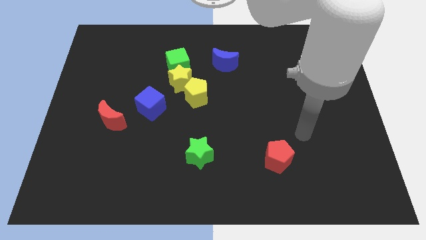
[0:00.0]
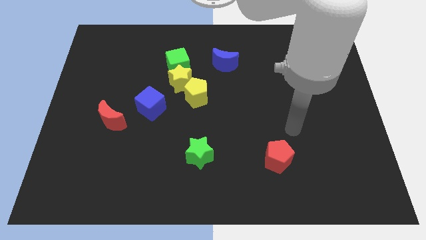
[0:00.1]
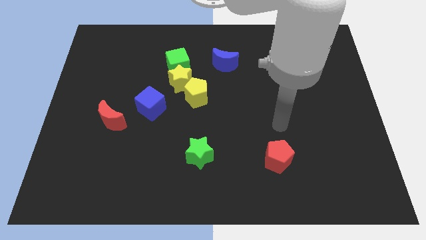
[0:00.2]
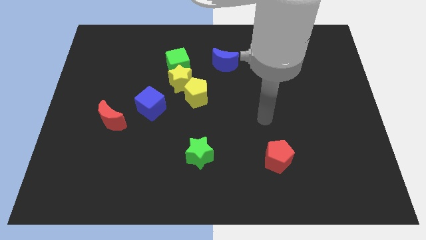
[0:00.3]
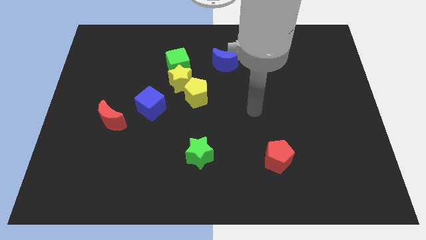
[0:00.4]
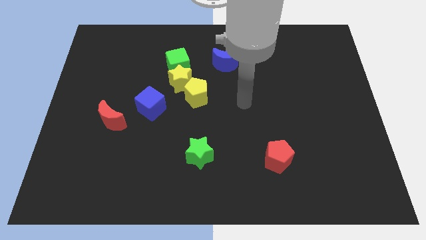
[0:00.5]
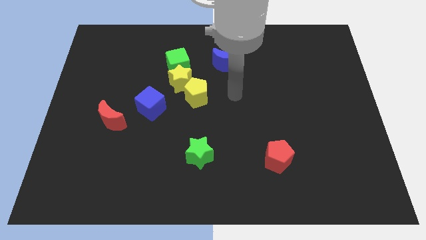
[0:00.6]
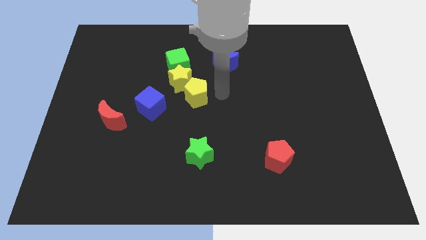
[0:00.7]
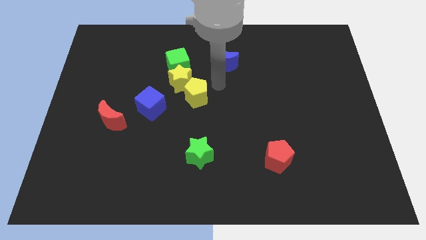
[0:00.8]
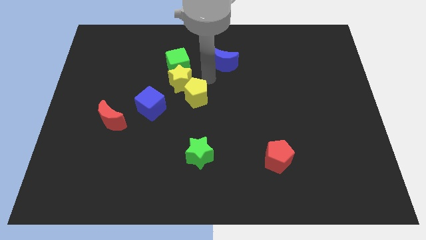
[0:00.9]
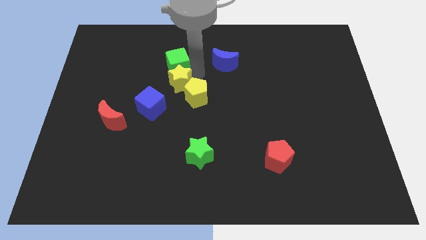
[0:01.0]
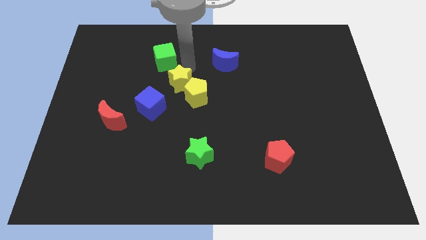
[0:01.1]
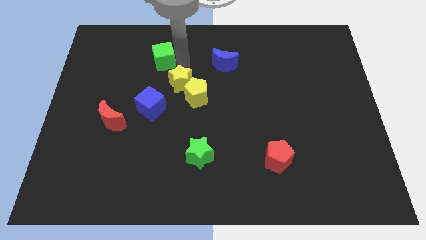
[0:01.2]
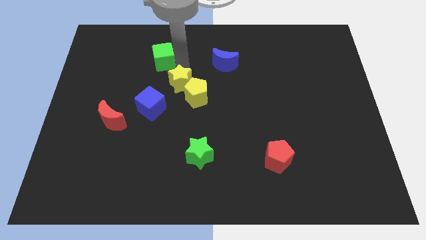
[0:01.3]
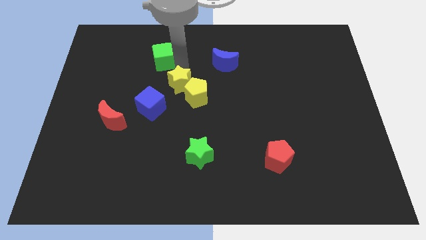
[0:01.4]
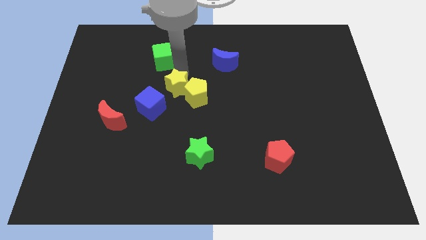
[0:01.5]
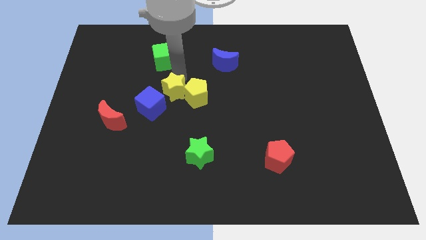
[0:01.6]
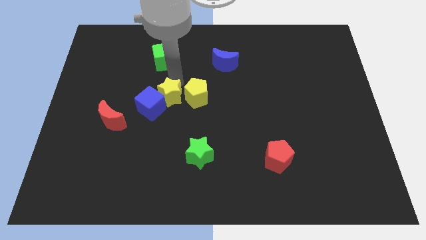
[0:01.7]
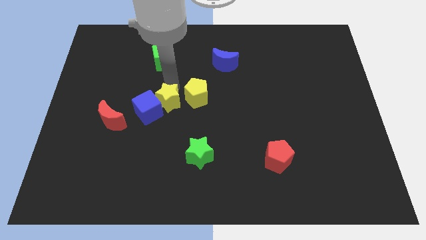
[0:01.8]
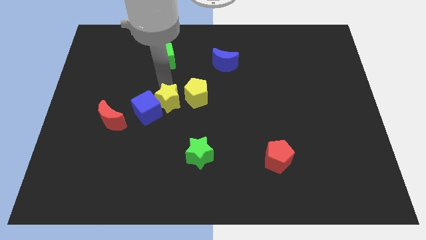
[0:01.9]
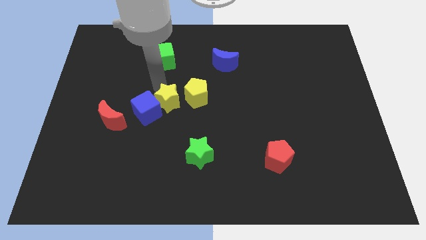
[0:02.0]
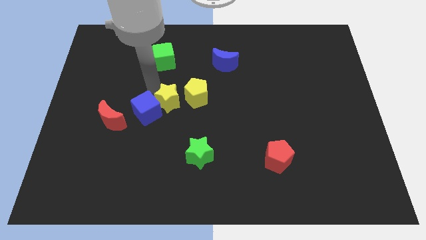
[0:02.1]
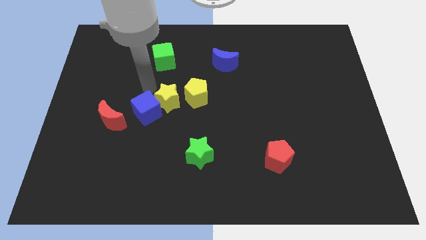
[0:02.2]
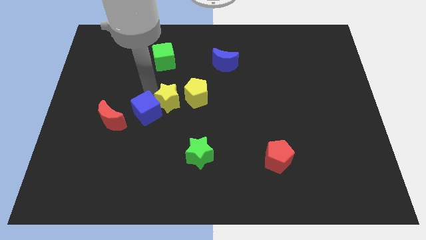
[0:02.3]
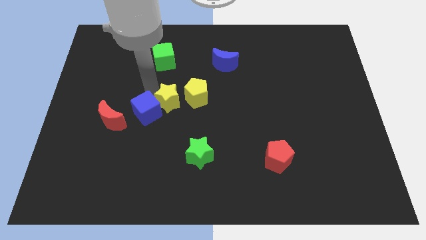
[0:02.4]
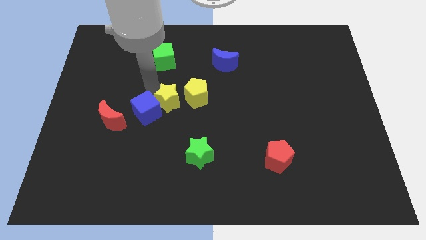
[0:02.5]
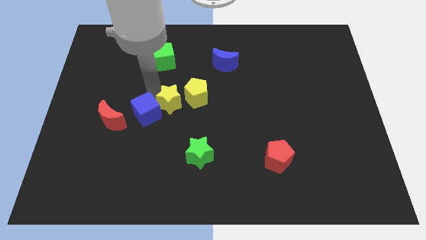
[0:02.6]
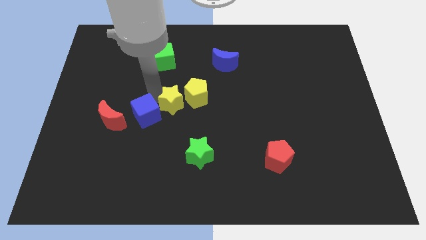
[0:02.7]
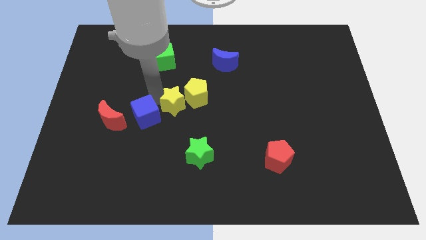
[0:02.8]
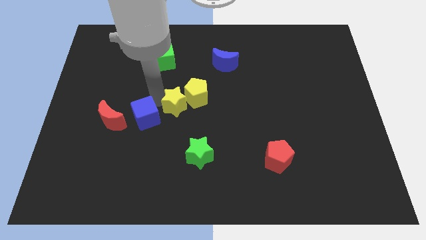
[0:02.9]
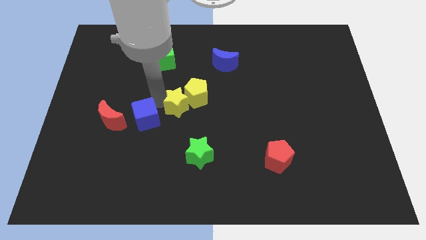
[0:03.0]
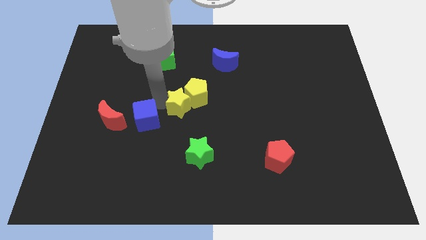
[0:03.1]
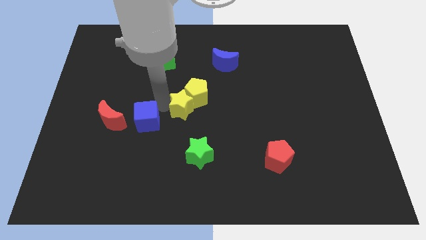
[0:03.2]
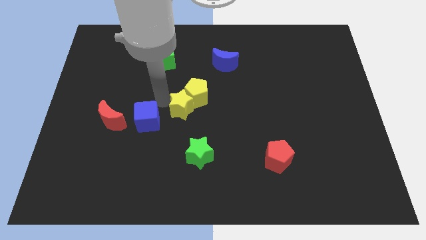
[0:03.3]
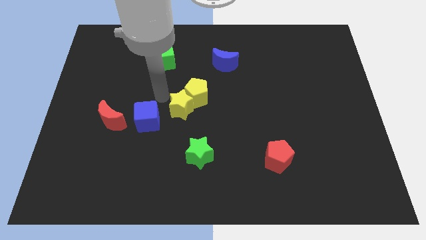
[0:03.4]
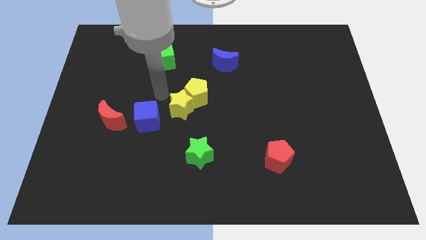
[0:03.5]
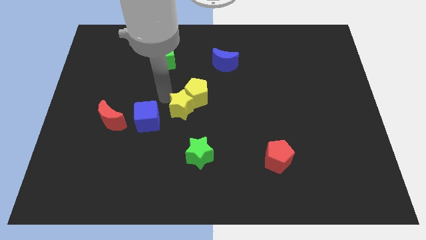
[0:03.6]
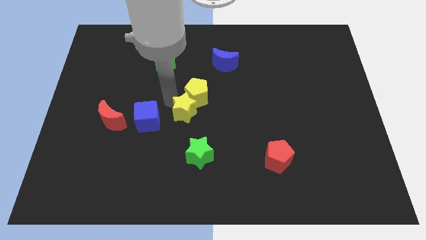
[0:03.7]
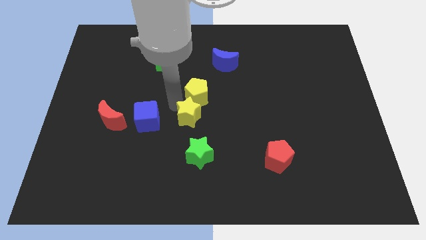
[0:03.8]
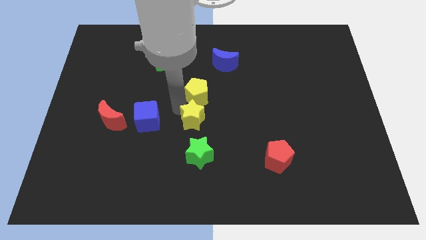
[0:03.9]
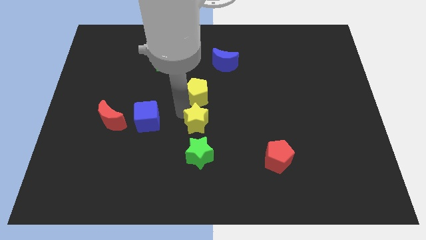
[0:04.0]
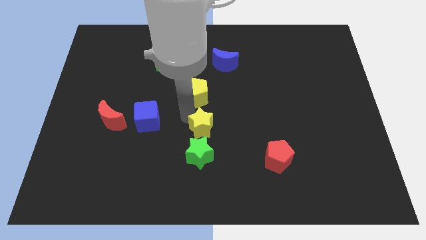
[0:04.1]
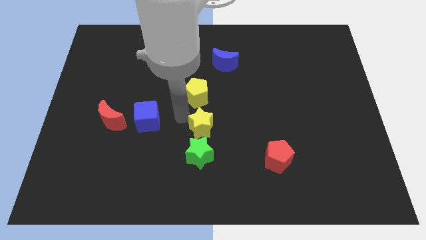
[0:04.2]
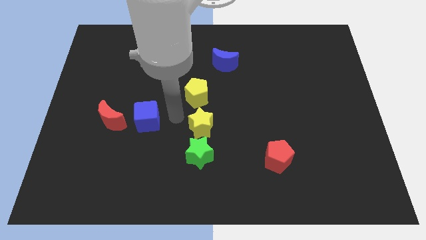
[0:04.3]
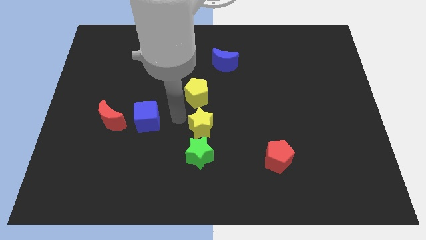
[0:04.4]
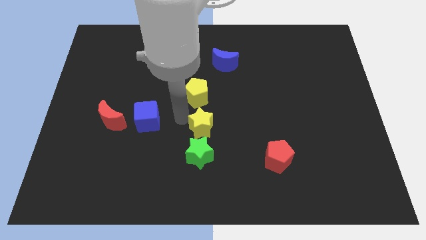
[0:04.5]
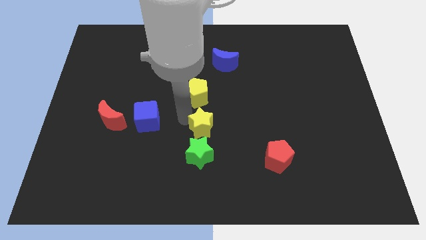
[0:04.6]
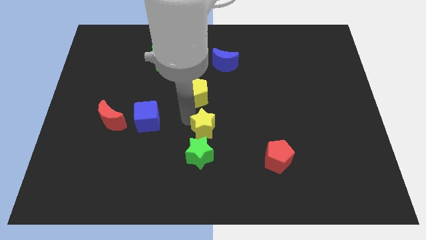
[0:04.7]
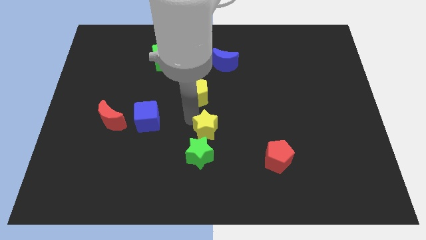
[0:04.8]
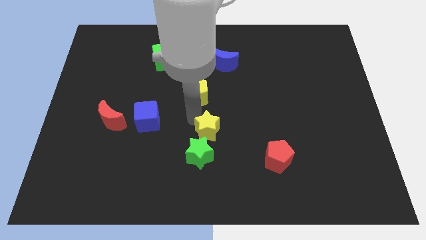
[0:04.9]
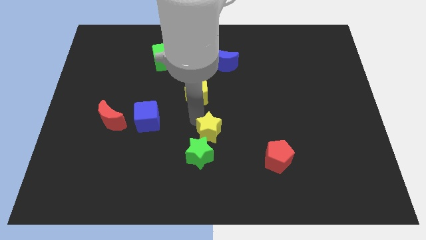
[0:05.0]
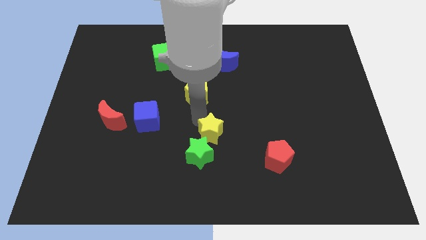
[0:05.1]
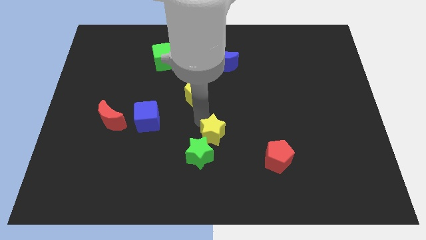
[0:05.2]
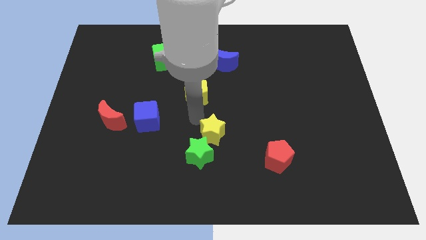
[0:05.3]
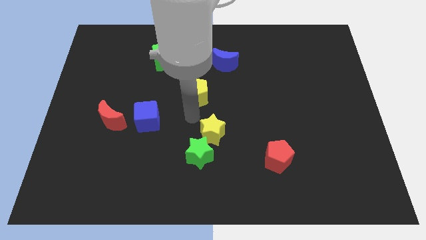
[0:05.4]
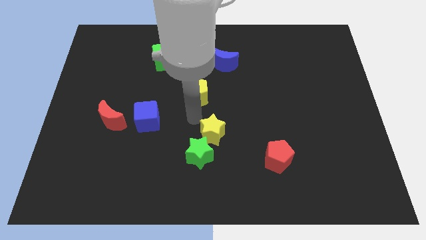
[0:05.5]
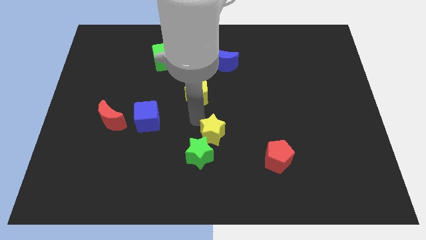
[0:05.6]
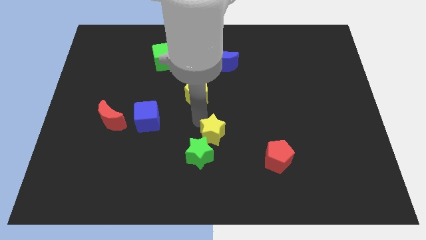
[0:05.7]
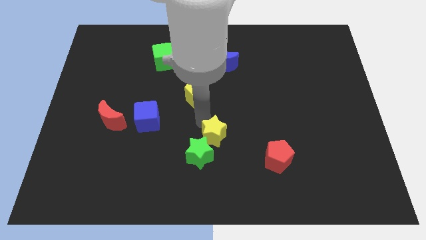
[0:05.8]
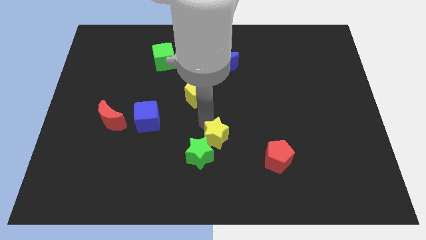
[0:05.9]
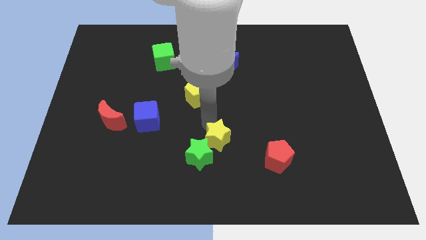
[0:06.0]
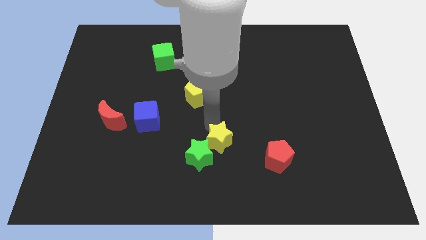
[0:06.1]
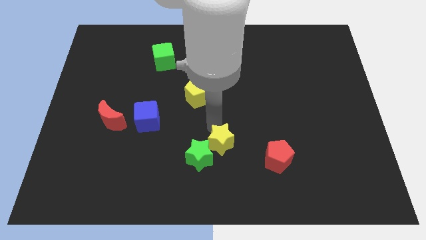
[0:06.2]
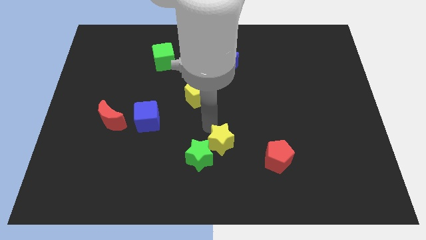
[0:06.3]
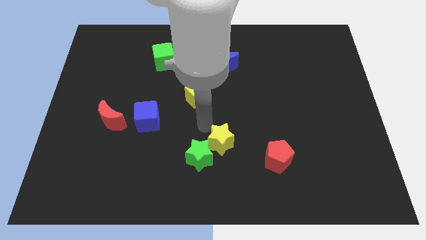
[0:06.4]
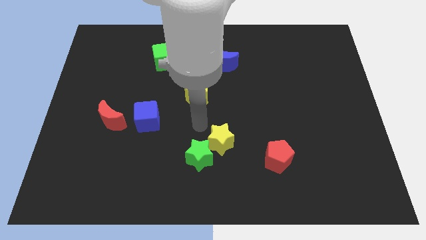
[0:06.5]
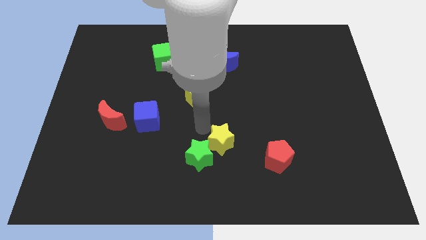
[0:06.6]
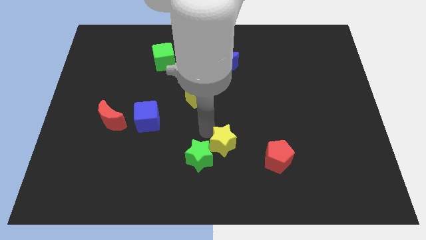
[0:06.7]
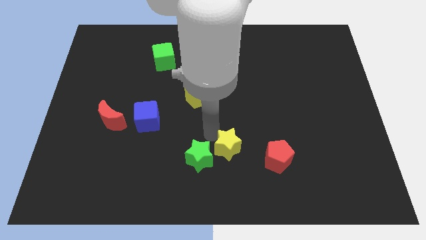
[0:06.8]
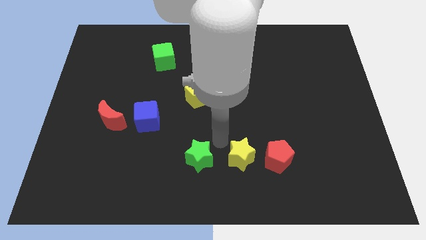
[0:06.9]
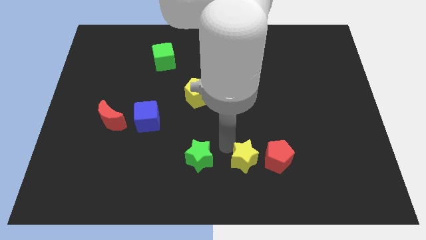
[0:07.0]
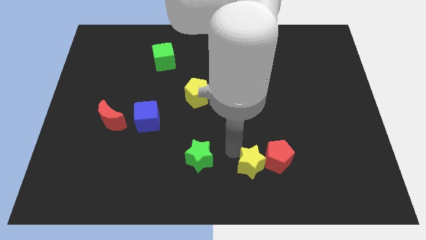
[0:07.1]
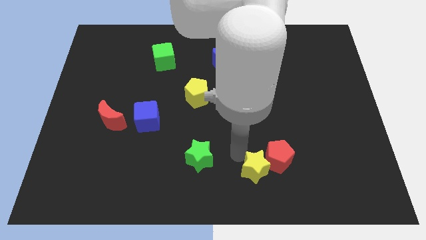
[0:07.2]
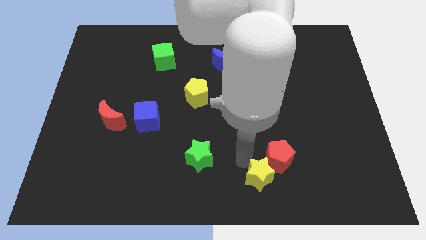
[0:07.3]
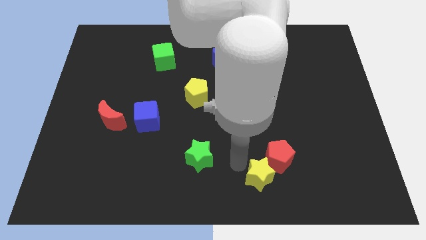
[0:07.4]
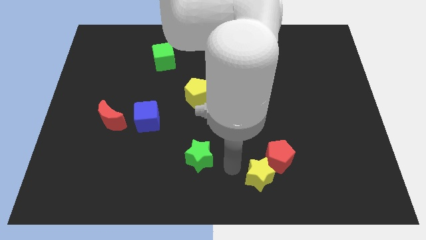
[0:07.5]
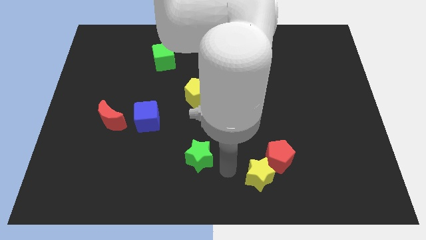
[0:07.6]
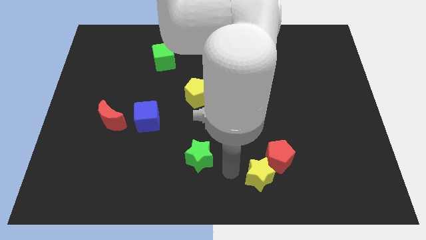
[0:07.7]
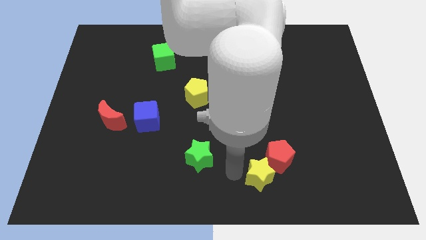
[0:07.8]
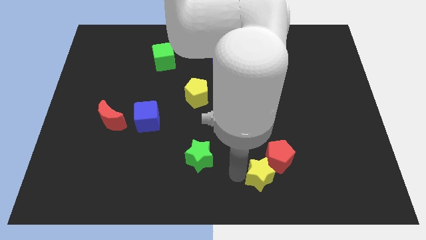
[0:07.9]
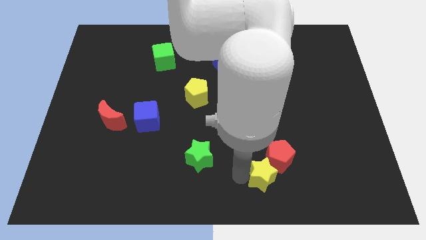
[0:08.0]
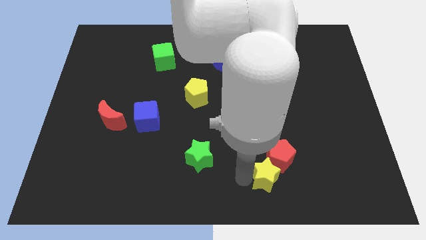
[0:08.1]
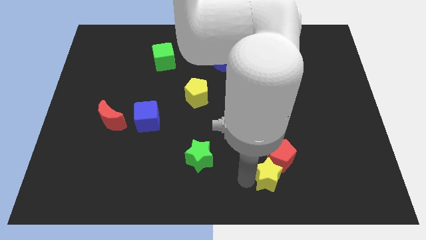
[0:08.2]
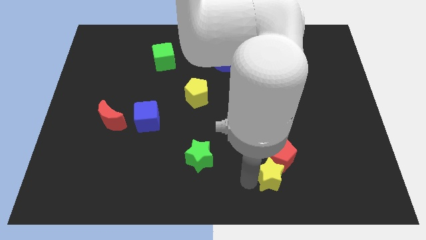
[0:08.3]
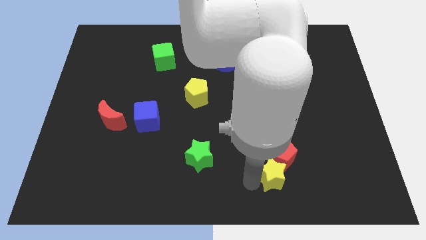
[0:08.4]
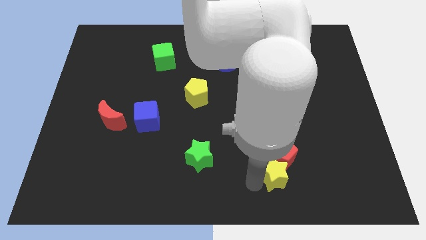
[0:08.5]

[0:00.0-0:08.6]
push the yellow star to the bottom right of the red pentagon
